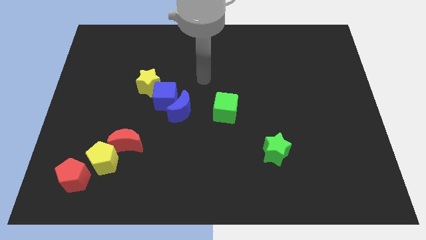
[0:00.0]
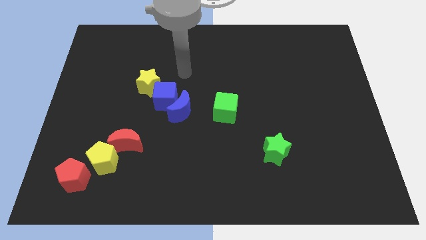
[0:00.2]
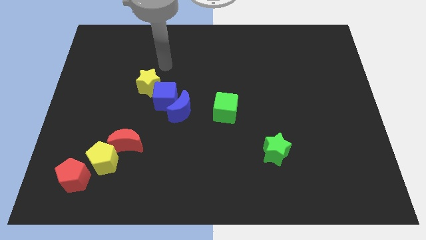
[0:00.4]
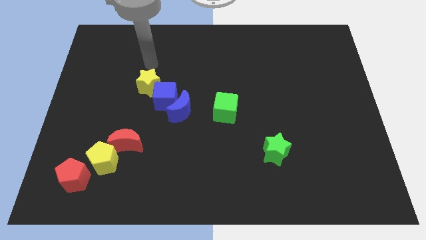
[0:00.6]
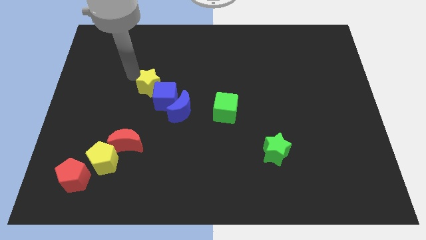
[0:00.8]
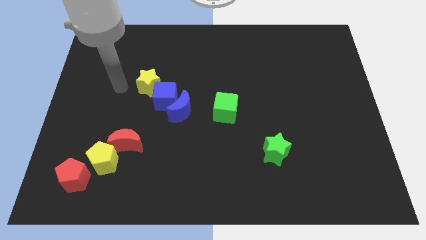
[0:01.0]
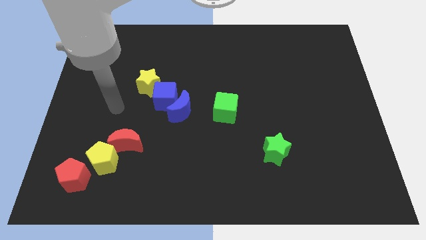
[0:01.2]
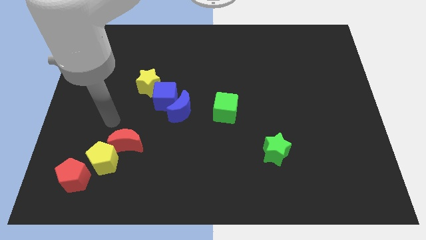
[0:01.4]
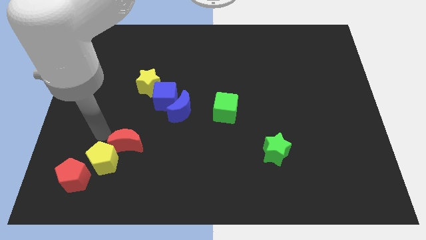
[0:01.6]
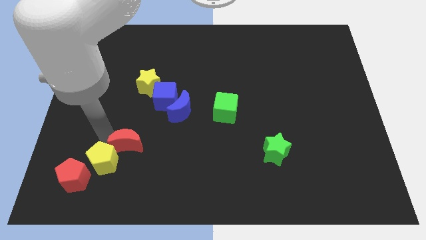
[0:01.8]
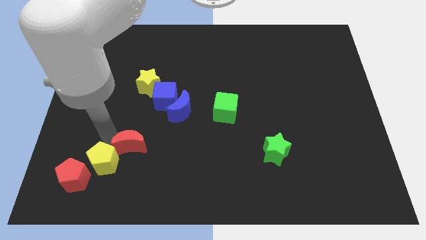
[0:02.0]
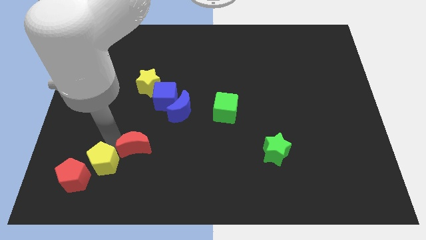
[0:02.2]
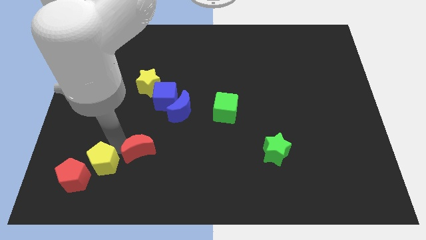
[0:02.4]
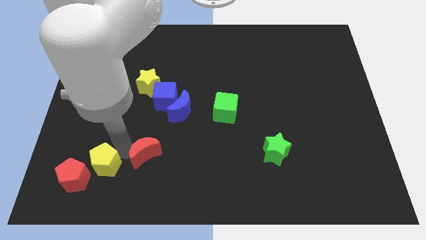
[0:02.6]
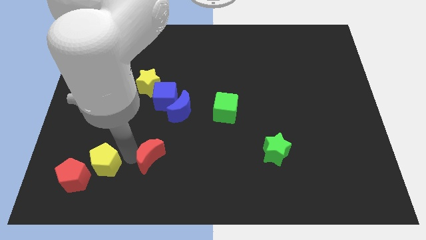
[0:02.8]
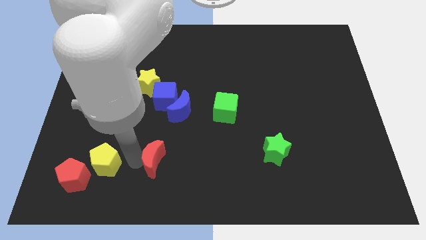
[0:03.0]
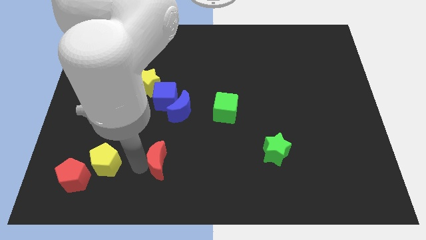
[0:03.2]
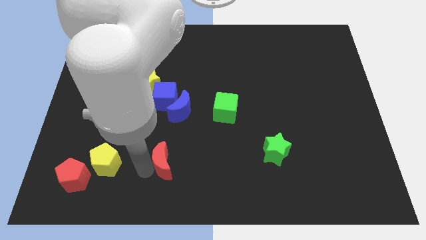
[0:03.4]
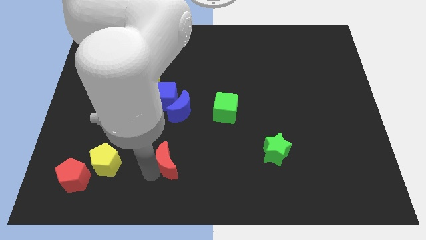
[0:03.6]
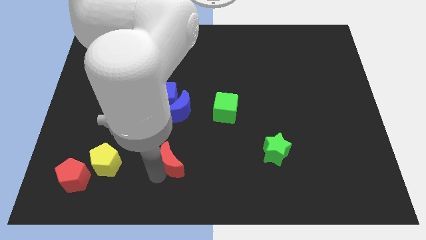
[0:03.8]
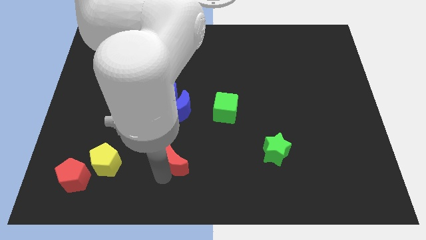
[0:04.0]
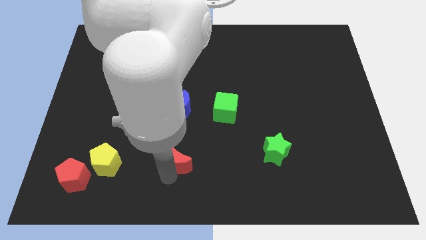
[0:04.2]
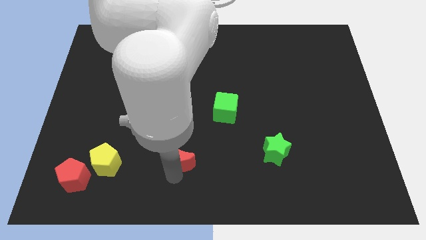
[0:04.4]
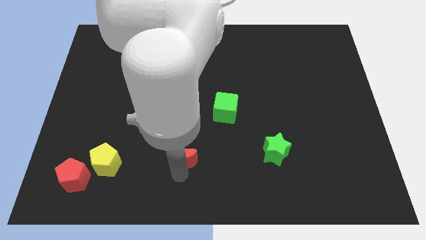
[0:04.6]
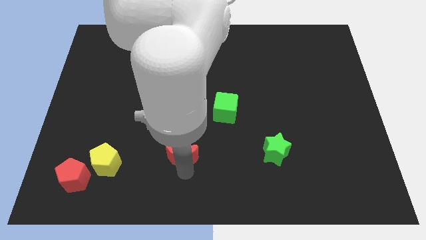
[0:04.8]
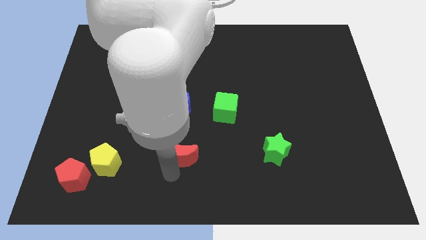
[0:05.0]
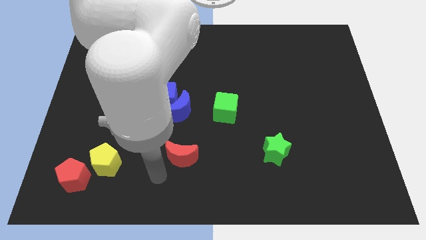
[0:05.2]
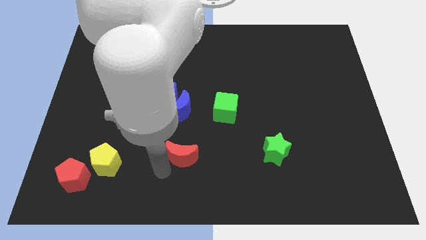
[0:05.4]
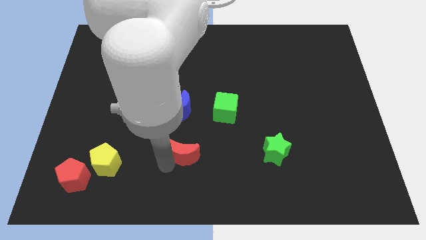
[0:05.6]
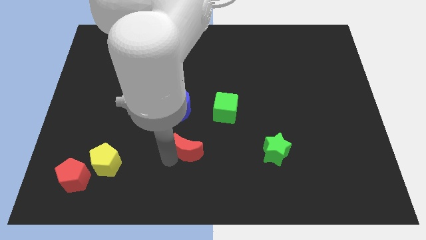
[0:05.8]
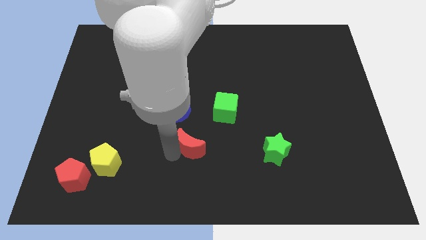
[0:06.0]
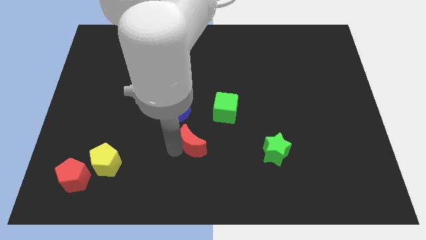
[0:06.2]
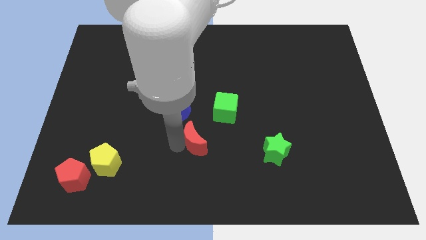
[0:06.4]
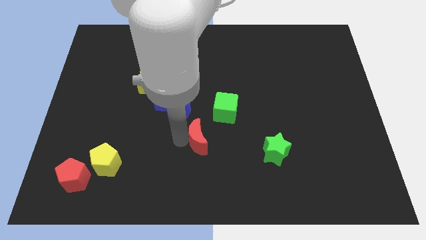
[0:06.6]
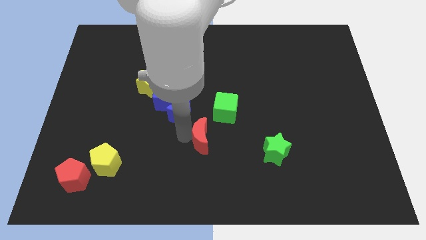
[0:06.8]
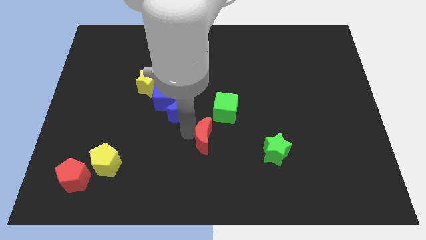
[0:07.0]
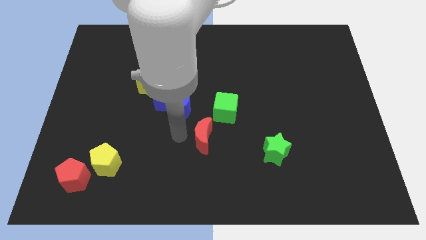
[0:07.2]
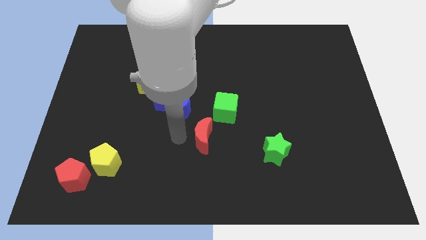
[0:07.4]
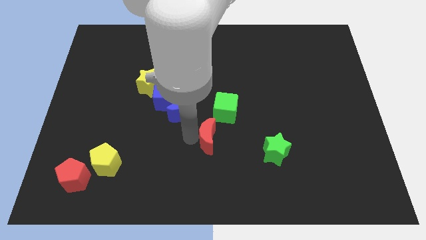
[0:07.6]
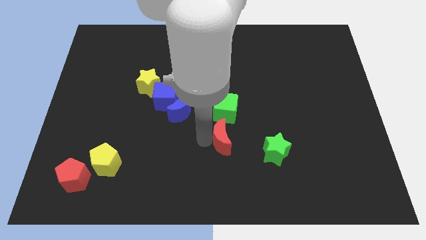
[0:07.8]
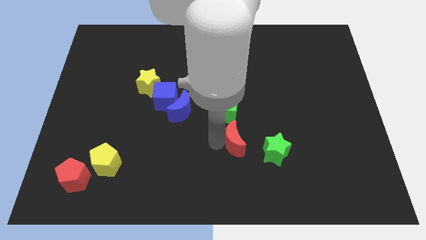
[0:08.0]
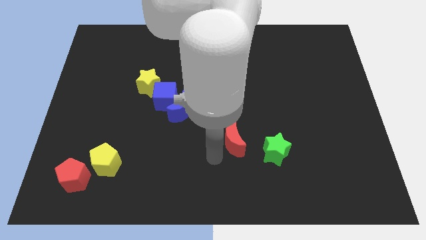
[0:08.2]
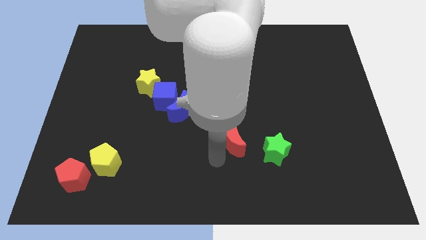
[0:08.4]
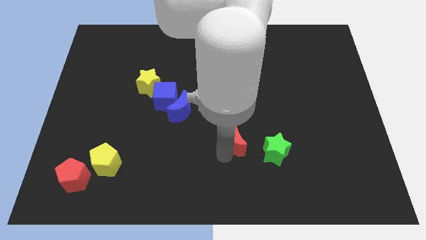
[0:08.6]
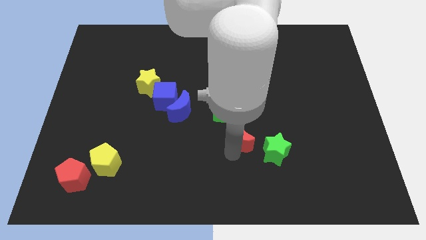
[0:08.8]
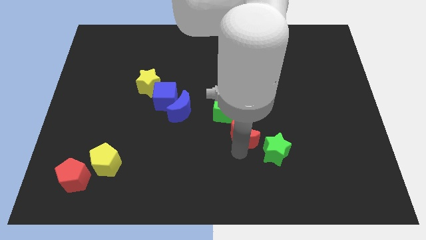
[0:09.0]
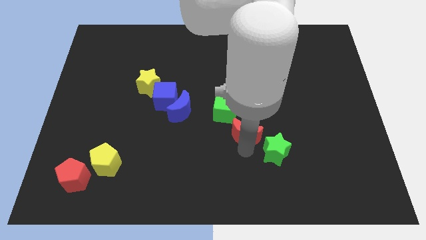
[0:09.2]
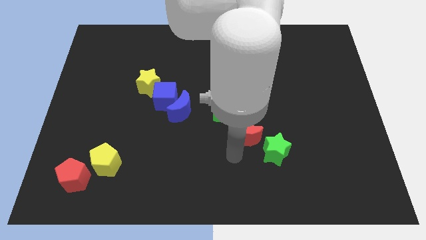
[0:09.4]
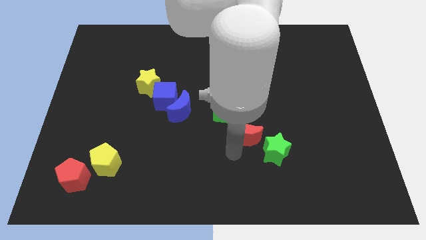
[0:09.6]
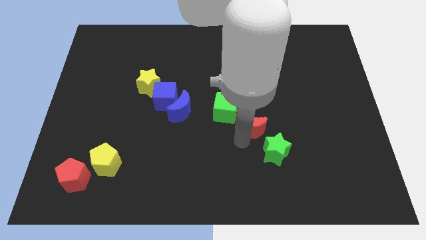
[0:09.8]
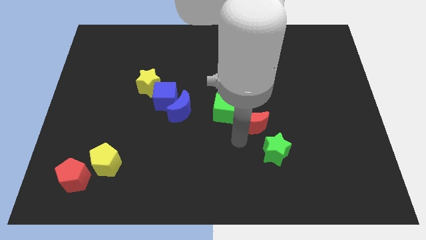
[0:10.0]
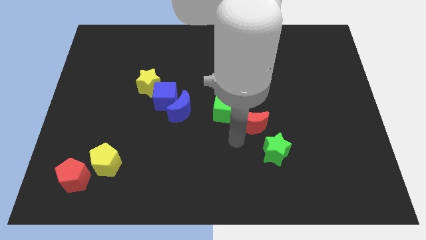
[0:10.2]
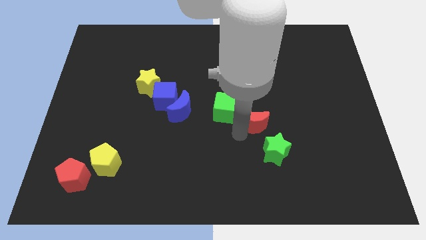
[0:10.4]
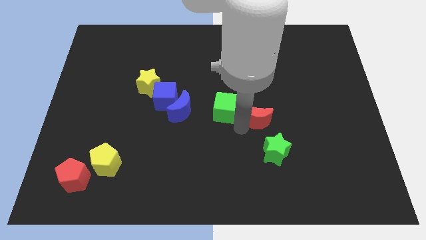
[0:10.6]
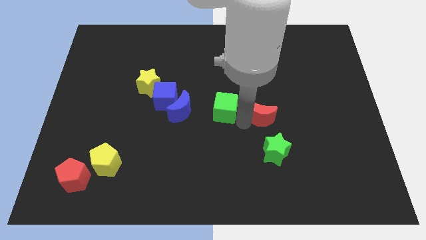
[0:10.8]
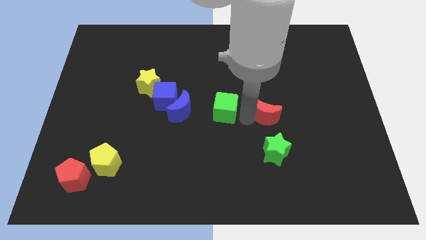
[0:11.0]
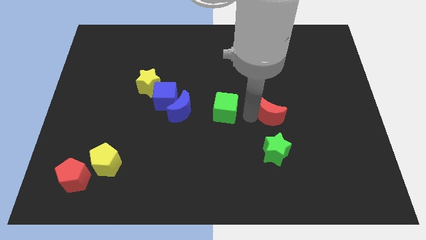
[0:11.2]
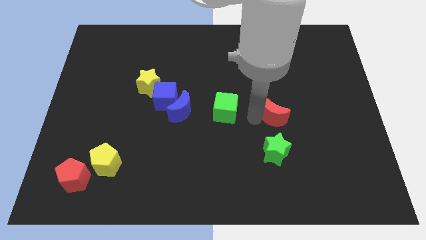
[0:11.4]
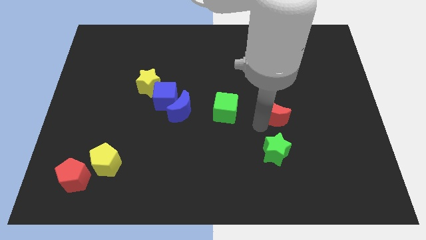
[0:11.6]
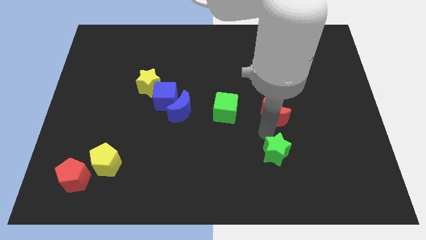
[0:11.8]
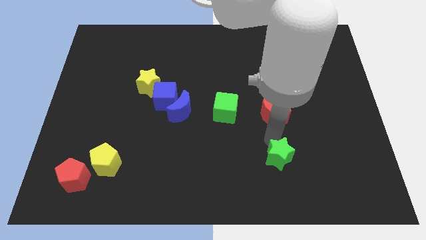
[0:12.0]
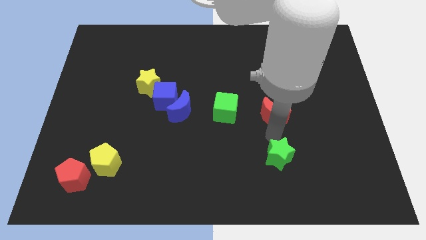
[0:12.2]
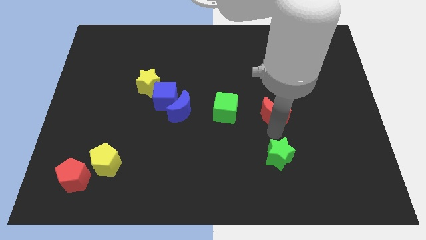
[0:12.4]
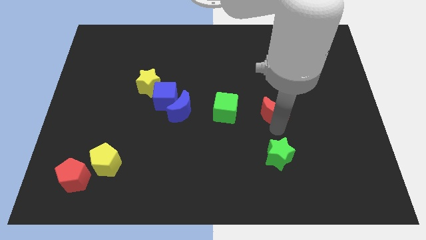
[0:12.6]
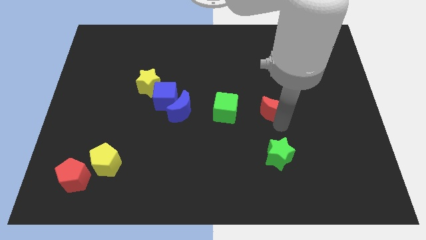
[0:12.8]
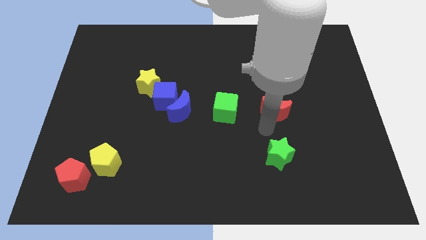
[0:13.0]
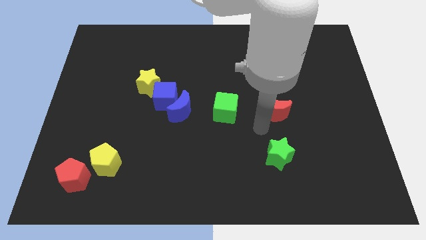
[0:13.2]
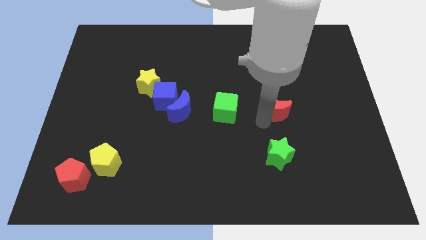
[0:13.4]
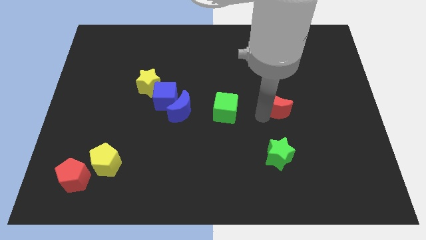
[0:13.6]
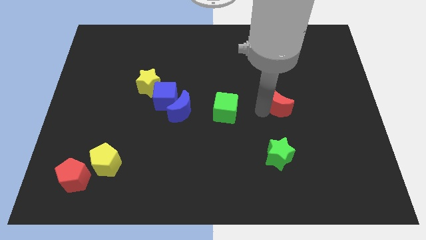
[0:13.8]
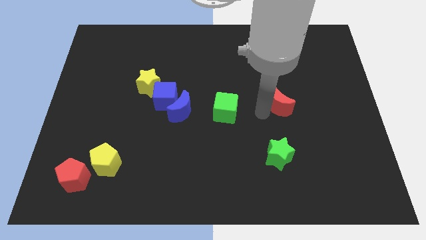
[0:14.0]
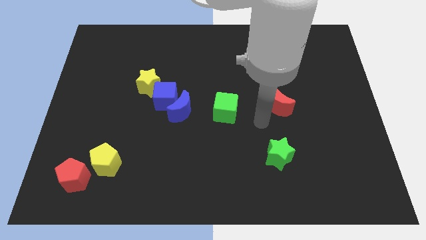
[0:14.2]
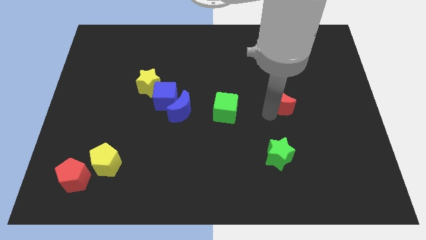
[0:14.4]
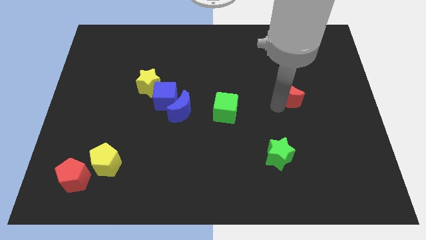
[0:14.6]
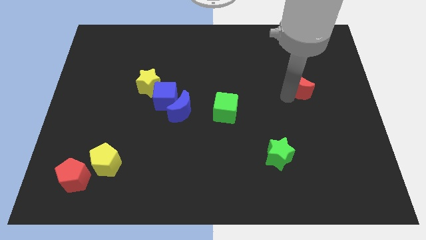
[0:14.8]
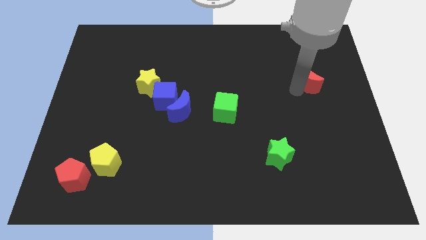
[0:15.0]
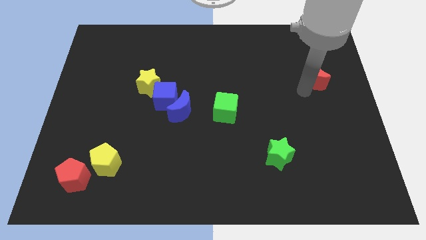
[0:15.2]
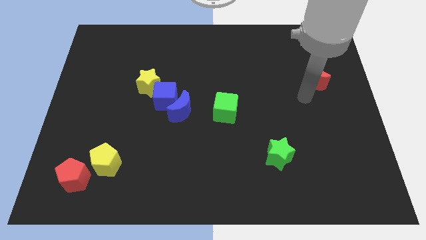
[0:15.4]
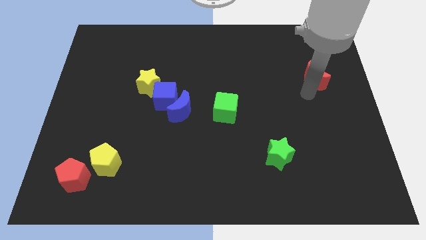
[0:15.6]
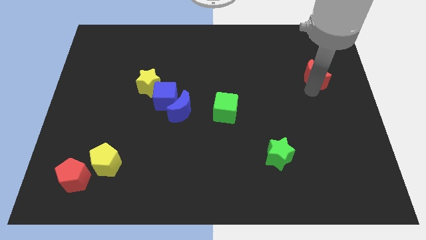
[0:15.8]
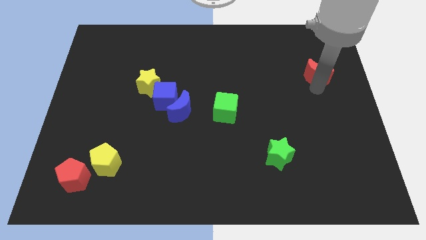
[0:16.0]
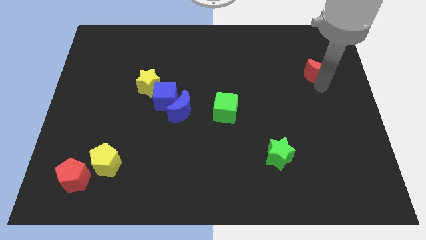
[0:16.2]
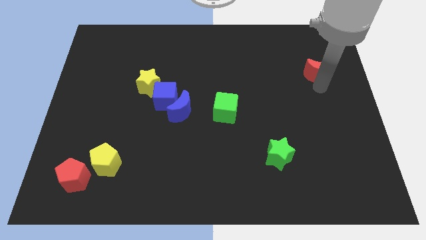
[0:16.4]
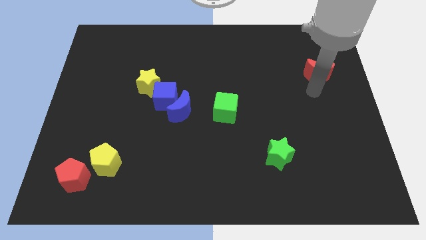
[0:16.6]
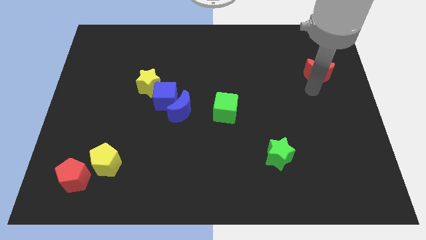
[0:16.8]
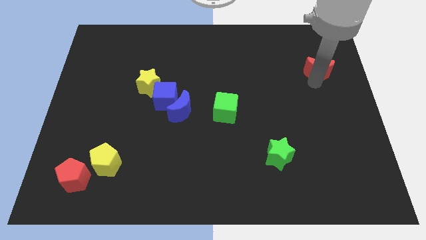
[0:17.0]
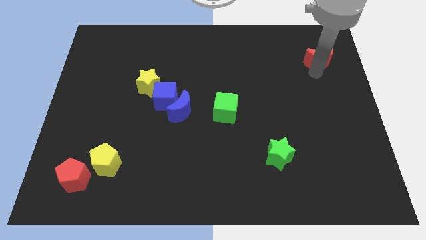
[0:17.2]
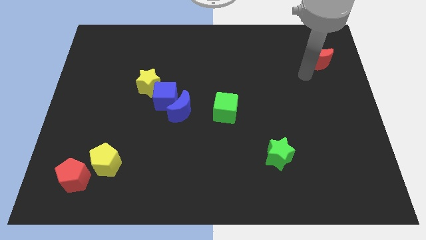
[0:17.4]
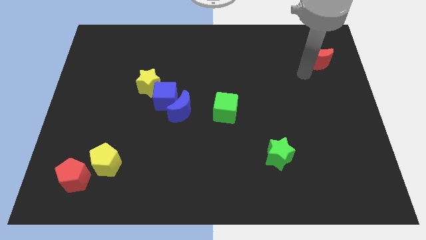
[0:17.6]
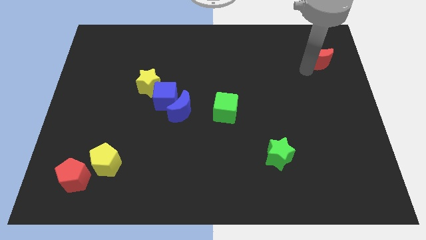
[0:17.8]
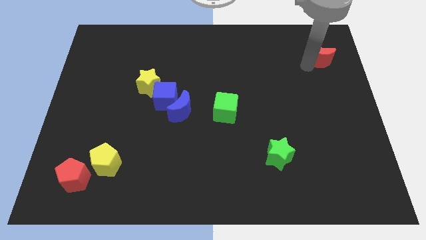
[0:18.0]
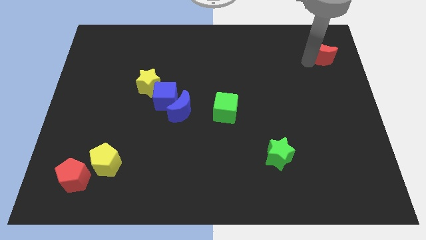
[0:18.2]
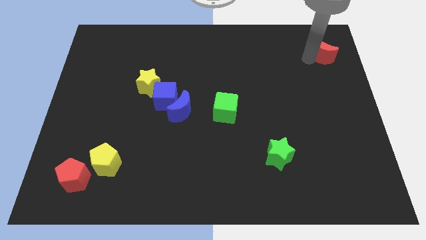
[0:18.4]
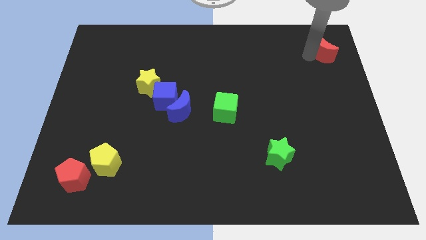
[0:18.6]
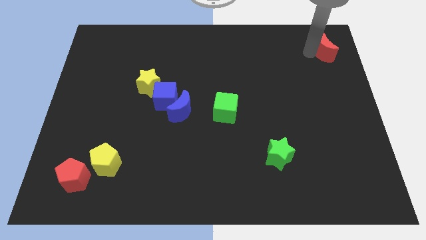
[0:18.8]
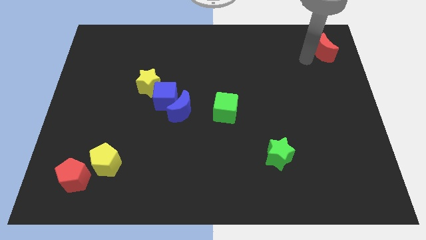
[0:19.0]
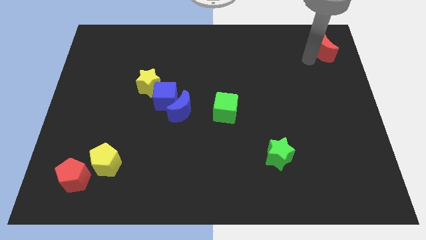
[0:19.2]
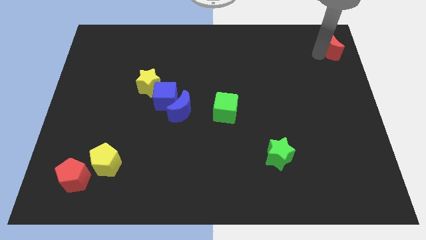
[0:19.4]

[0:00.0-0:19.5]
move the red moon to the top right corner
